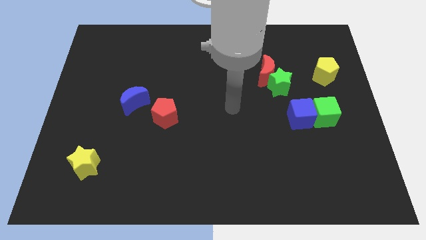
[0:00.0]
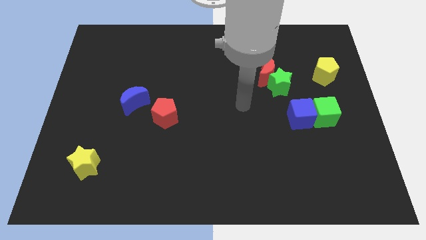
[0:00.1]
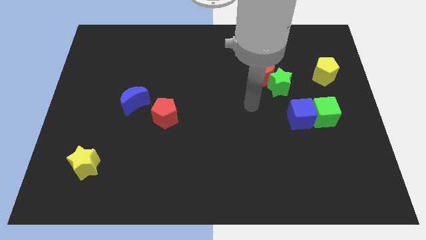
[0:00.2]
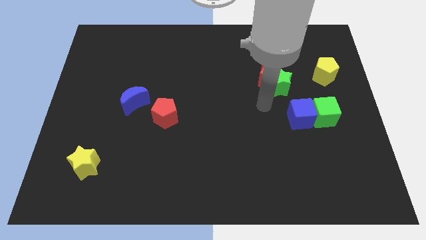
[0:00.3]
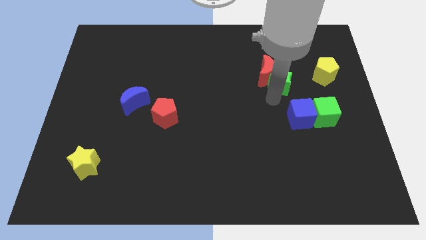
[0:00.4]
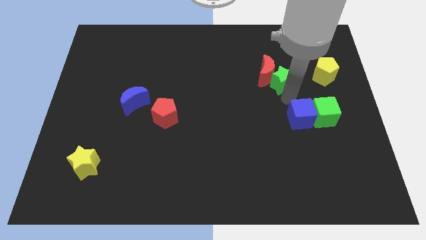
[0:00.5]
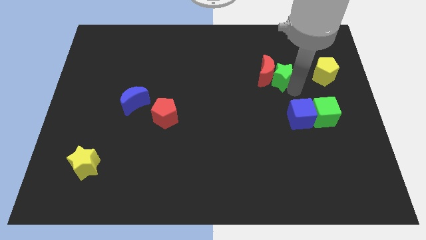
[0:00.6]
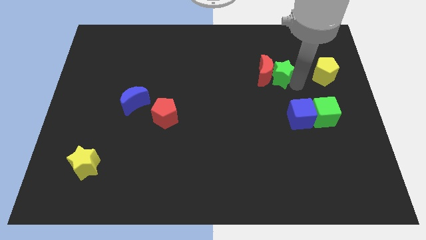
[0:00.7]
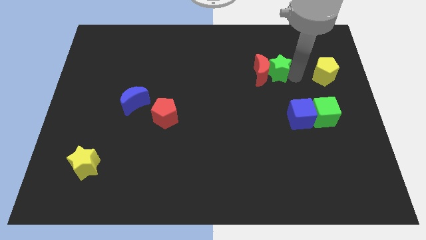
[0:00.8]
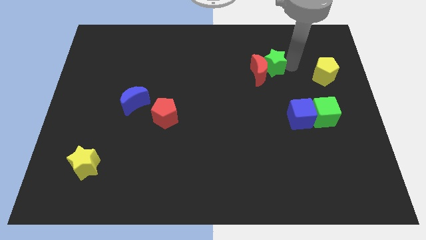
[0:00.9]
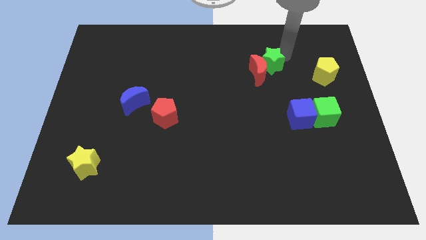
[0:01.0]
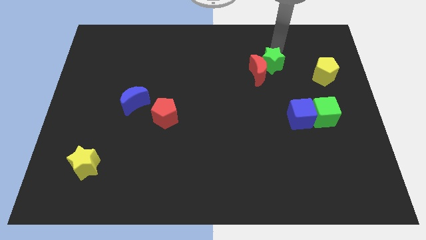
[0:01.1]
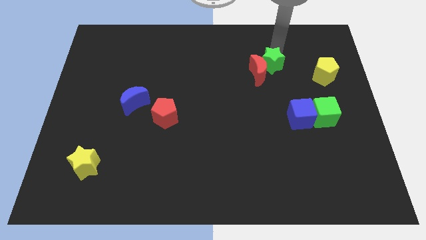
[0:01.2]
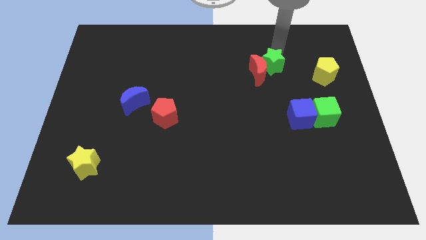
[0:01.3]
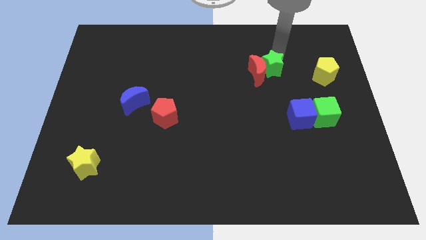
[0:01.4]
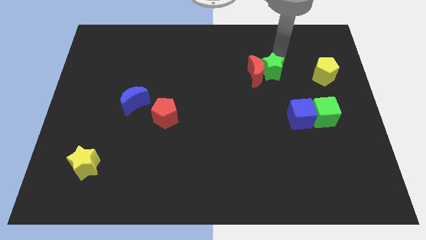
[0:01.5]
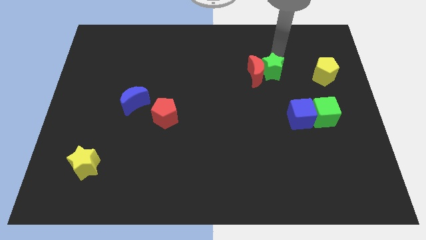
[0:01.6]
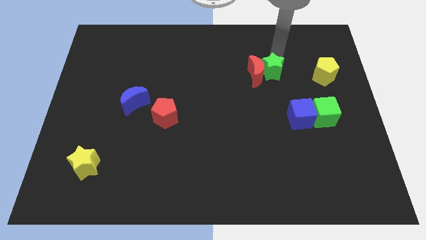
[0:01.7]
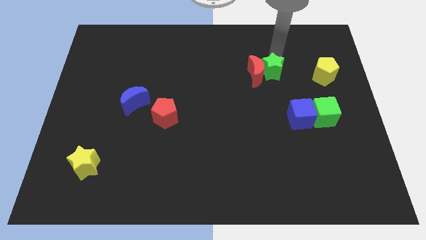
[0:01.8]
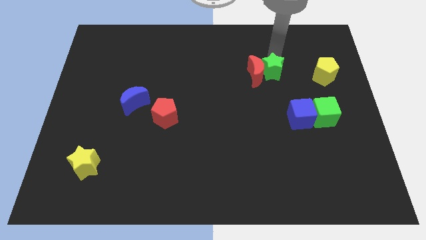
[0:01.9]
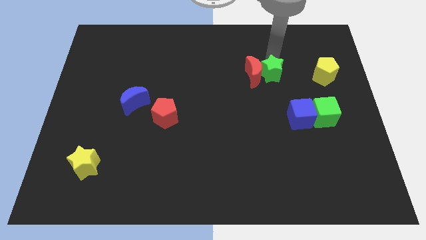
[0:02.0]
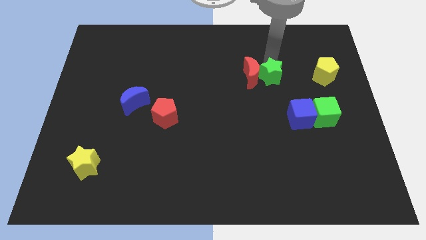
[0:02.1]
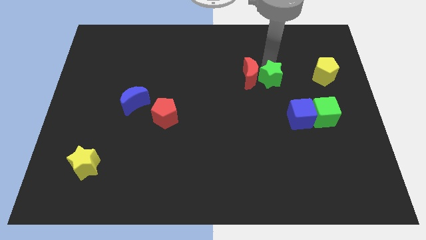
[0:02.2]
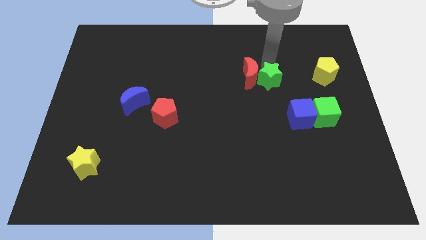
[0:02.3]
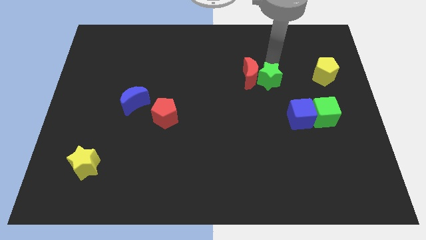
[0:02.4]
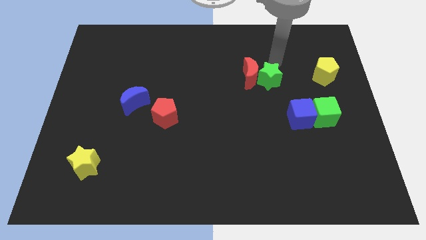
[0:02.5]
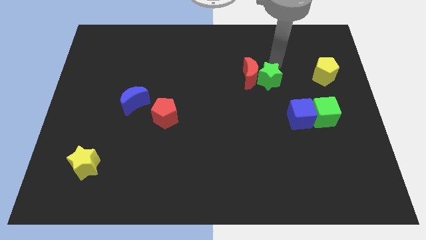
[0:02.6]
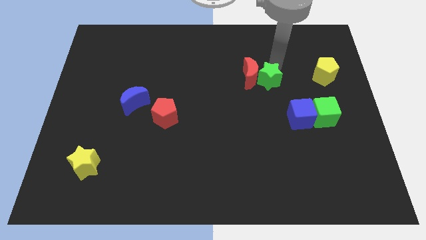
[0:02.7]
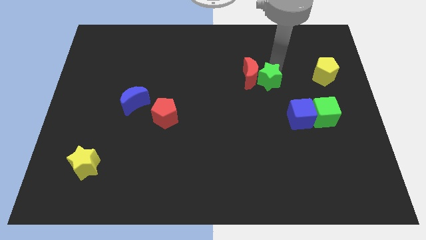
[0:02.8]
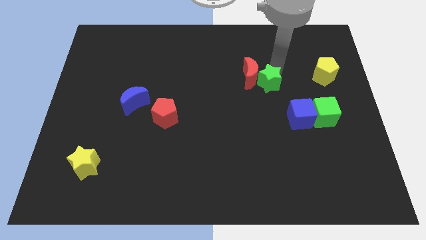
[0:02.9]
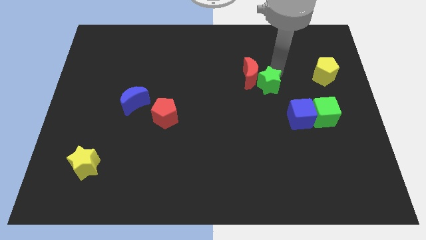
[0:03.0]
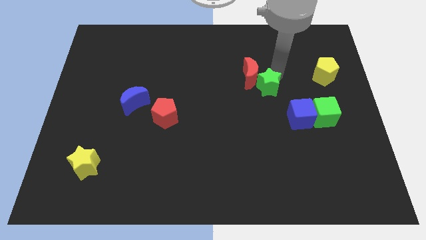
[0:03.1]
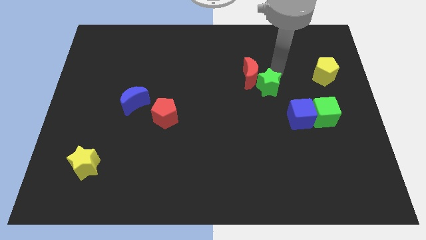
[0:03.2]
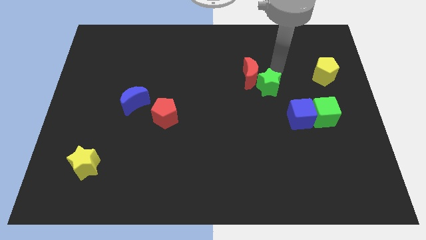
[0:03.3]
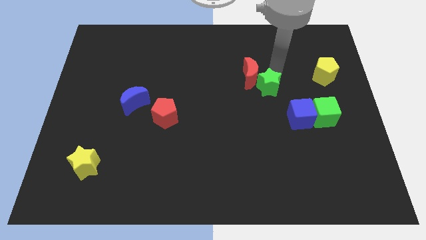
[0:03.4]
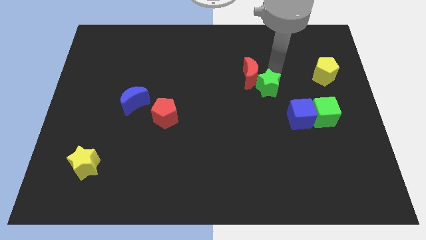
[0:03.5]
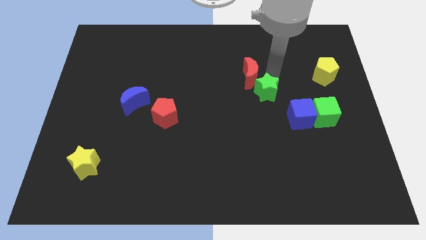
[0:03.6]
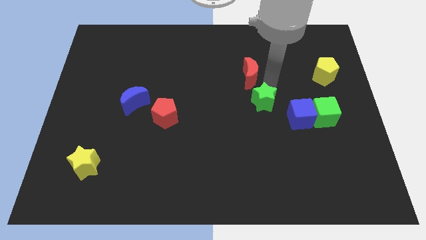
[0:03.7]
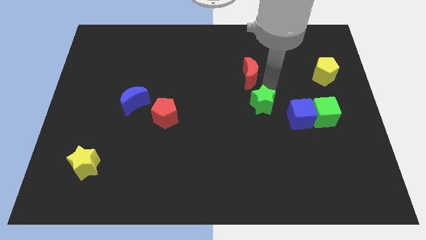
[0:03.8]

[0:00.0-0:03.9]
push the green star a little diagonally down and to the left

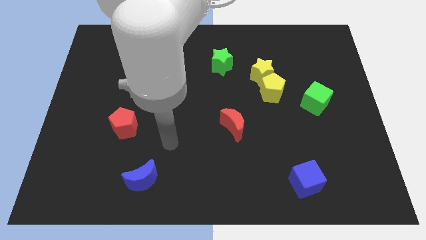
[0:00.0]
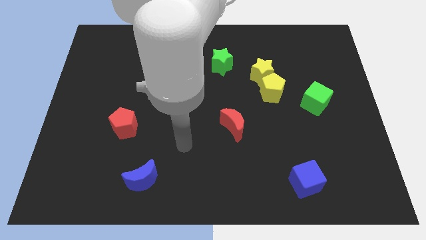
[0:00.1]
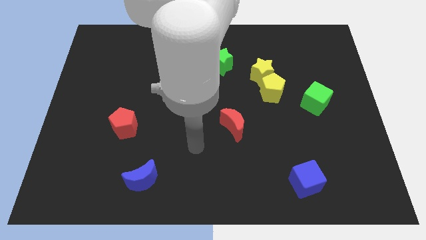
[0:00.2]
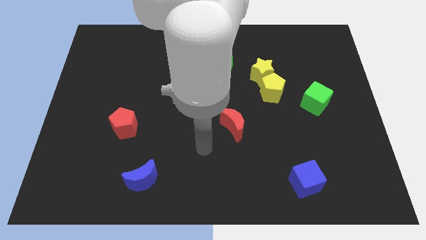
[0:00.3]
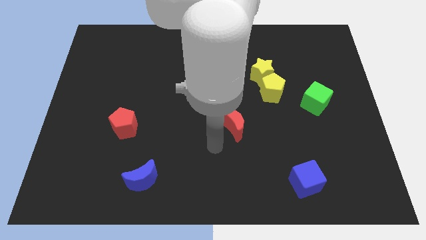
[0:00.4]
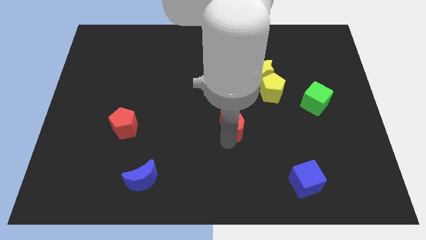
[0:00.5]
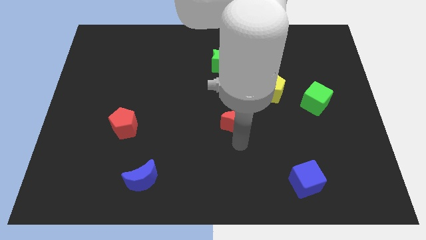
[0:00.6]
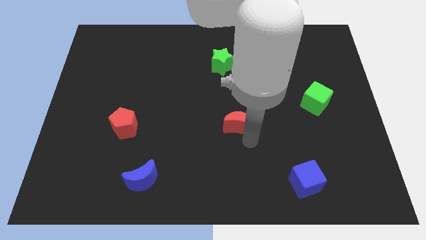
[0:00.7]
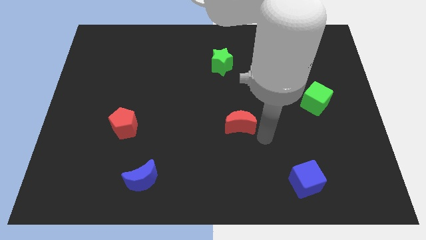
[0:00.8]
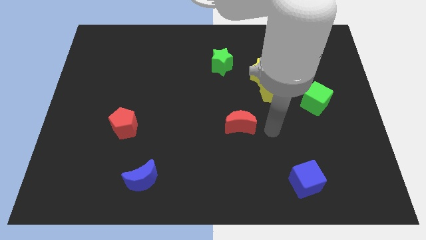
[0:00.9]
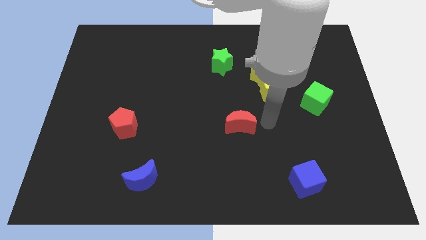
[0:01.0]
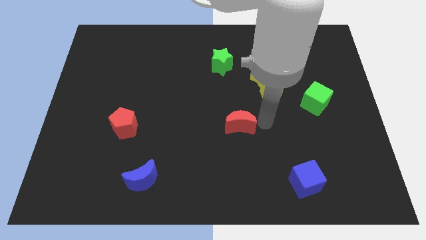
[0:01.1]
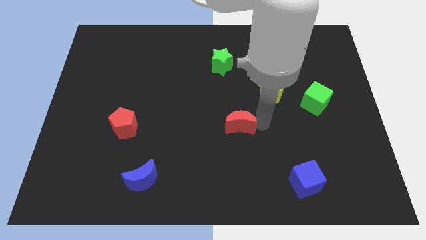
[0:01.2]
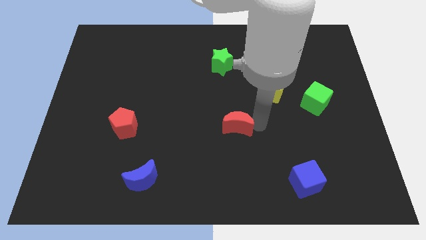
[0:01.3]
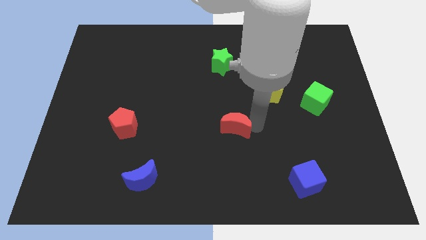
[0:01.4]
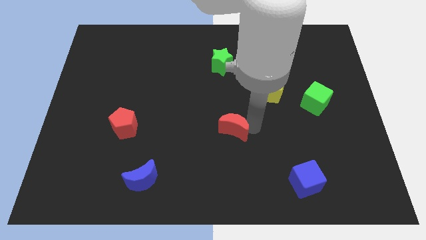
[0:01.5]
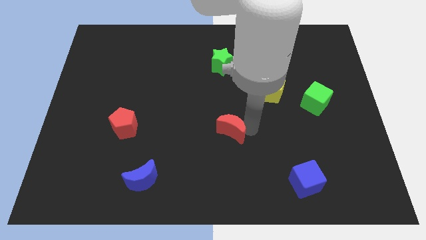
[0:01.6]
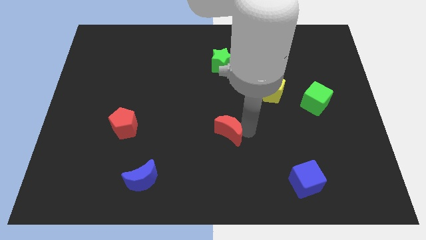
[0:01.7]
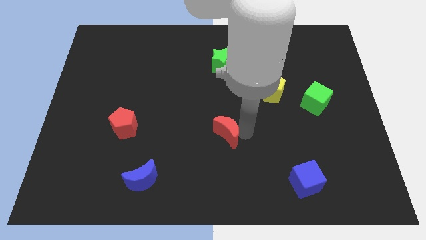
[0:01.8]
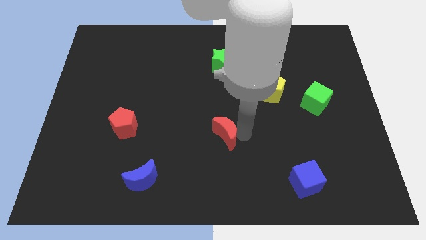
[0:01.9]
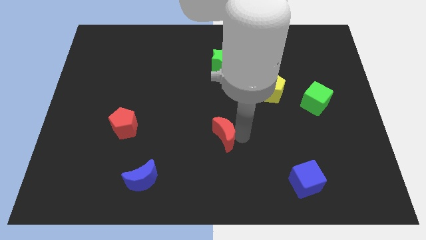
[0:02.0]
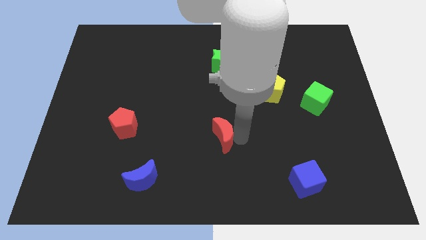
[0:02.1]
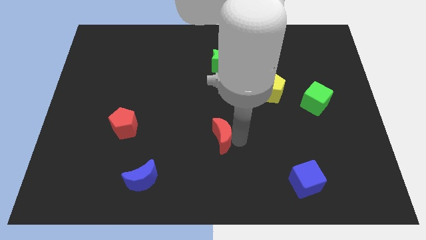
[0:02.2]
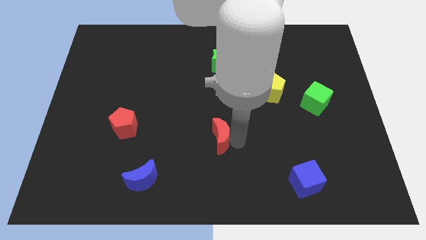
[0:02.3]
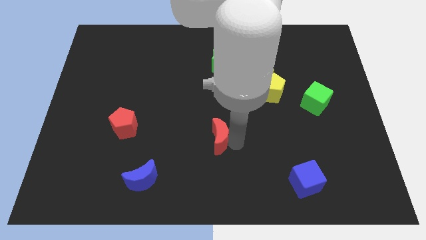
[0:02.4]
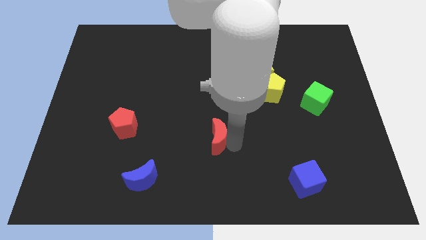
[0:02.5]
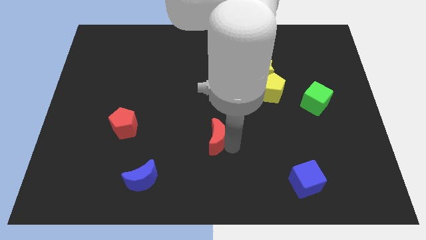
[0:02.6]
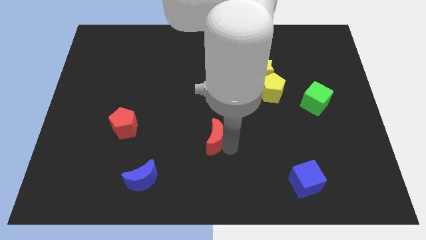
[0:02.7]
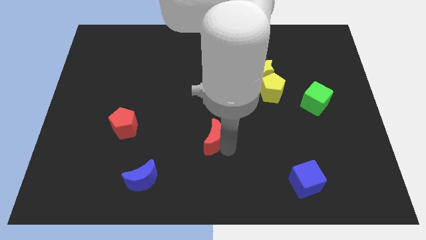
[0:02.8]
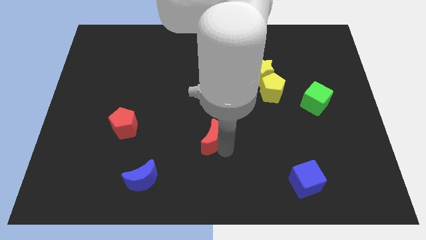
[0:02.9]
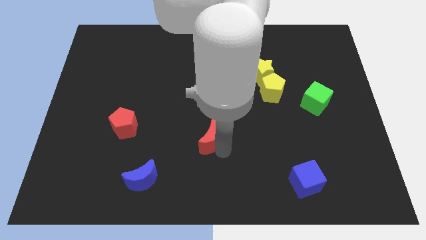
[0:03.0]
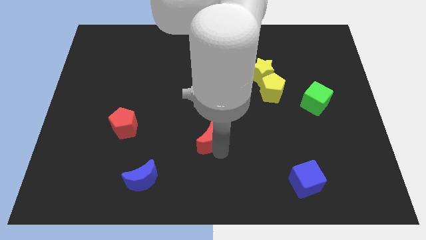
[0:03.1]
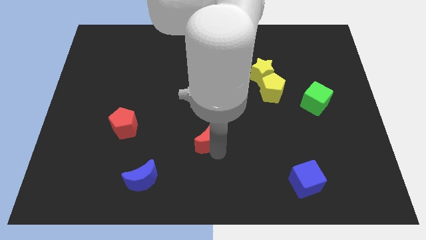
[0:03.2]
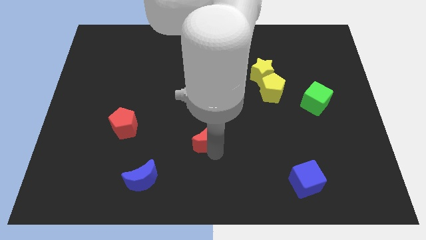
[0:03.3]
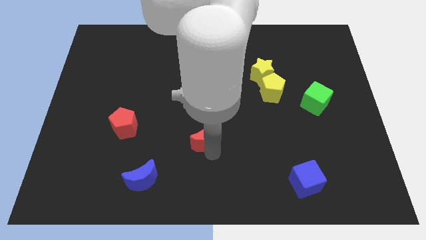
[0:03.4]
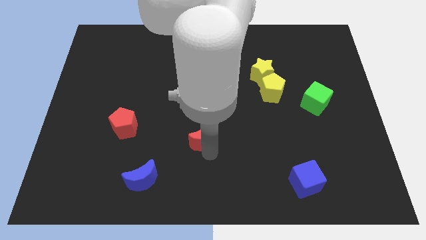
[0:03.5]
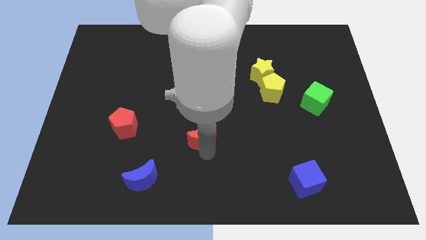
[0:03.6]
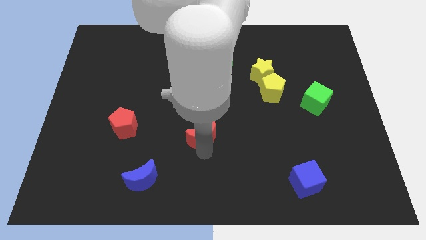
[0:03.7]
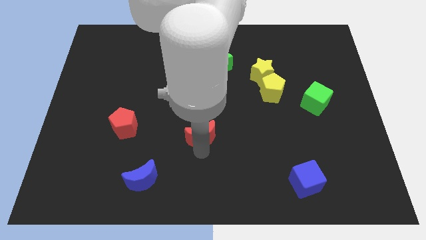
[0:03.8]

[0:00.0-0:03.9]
slide the red moon a bit to the left
